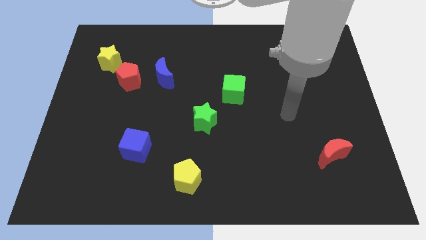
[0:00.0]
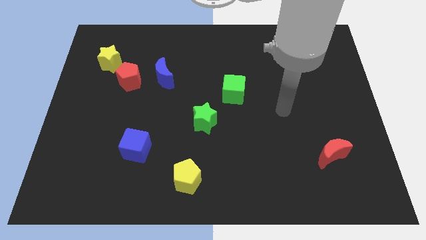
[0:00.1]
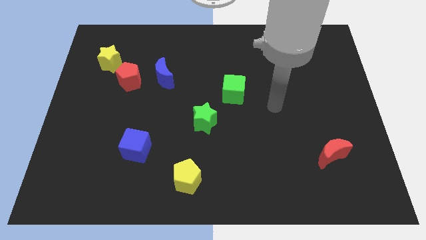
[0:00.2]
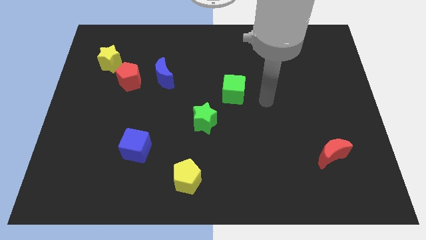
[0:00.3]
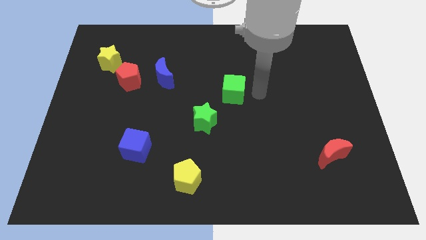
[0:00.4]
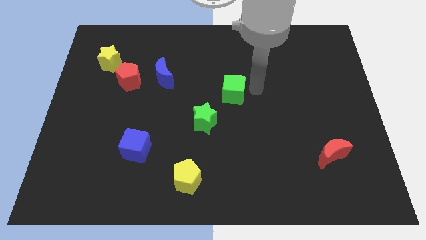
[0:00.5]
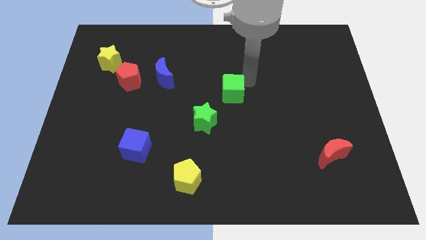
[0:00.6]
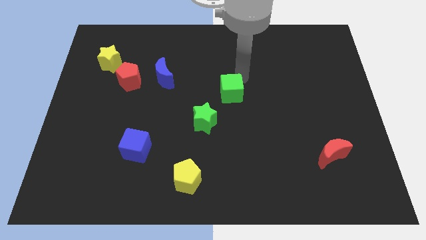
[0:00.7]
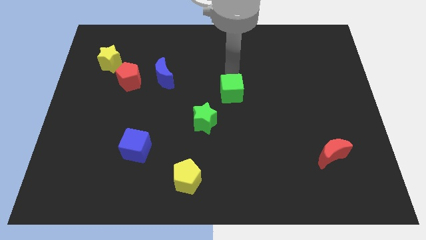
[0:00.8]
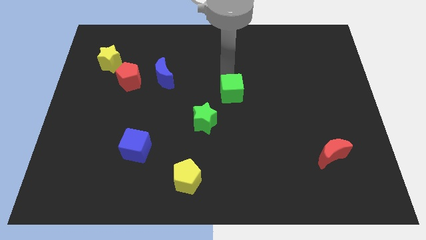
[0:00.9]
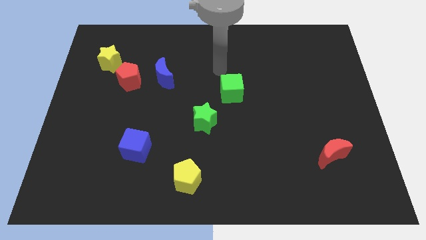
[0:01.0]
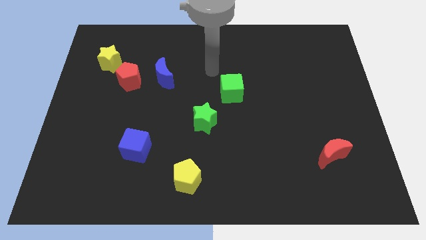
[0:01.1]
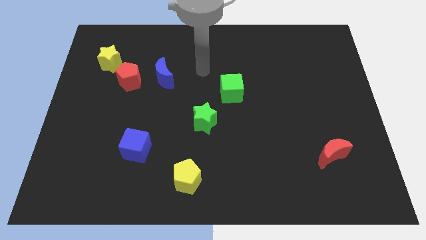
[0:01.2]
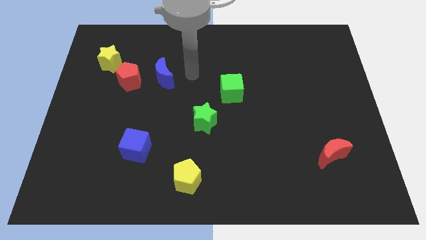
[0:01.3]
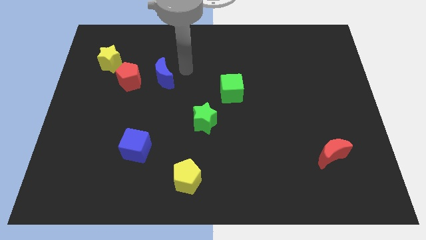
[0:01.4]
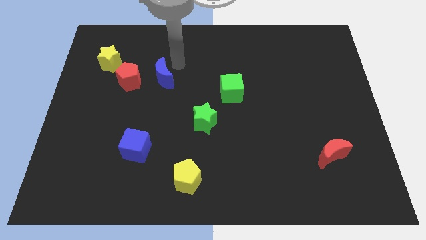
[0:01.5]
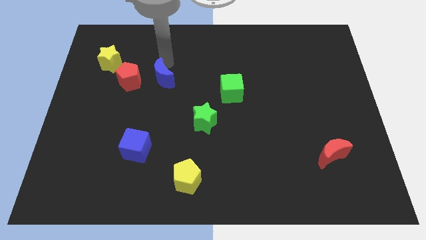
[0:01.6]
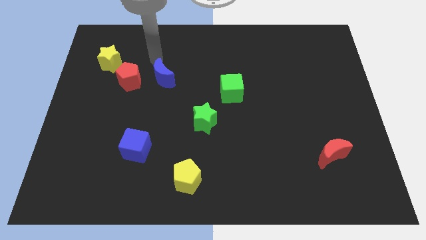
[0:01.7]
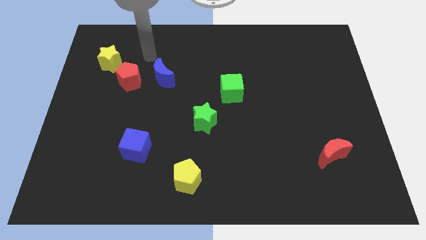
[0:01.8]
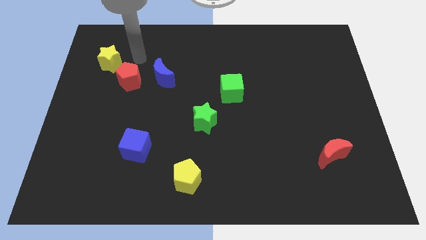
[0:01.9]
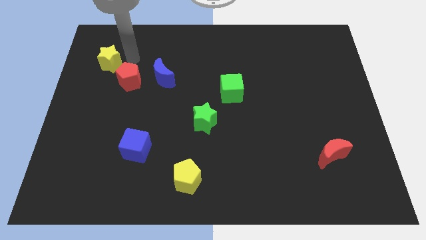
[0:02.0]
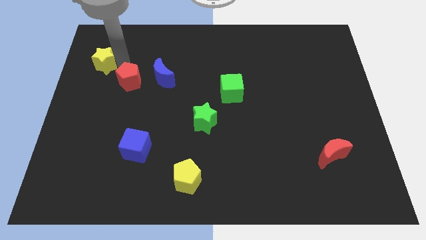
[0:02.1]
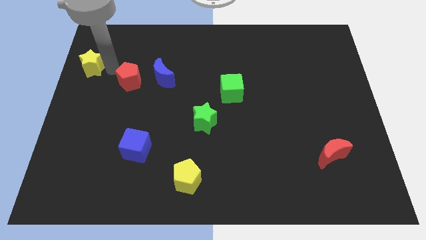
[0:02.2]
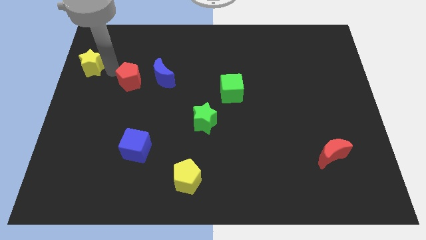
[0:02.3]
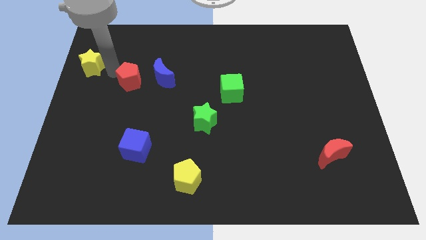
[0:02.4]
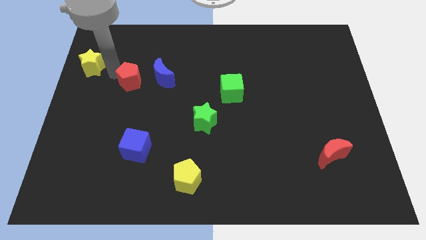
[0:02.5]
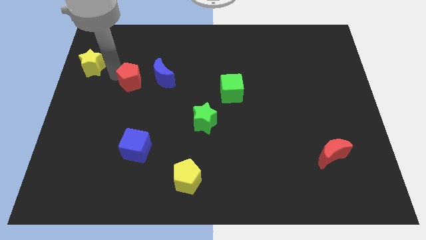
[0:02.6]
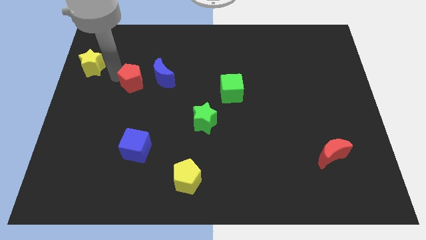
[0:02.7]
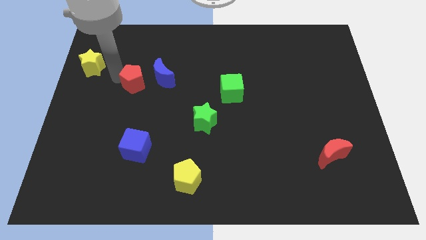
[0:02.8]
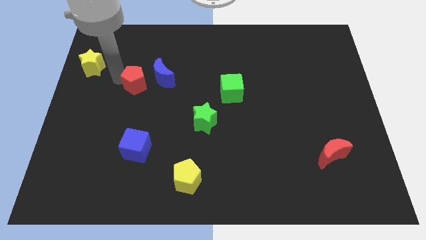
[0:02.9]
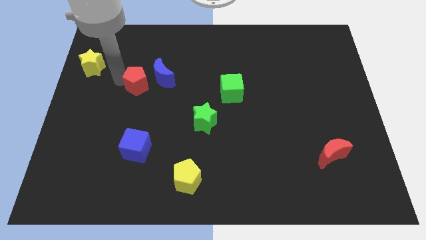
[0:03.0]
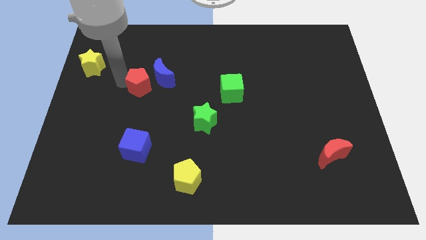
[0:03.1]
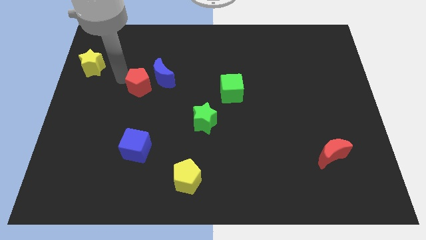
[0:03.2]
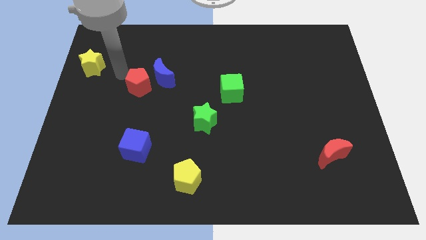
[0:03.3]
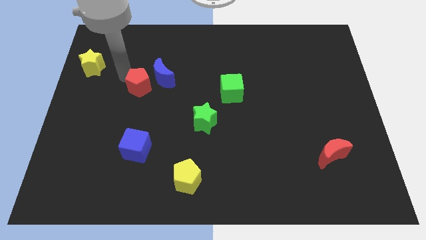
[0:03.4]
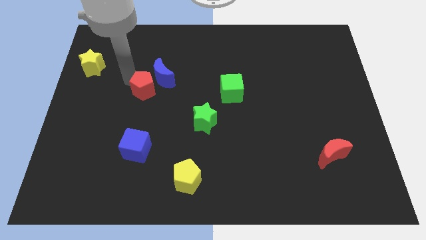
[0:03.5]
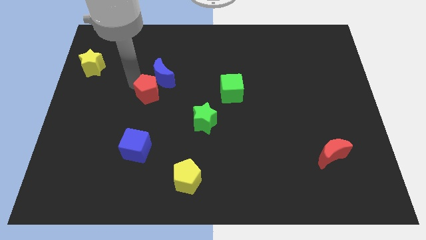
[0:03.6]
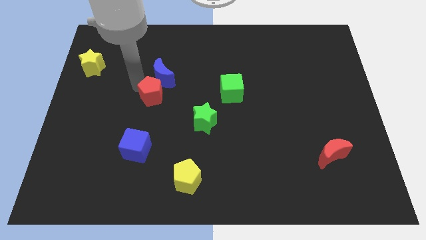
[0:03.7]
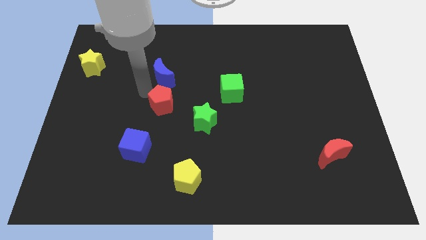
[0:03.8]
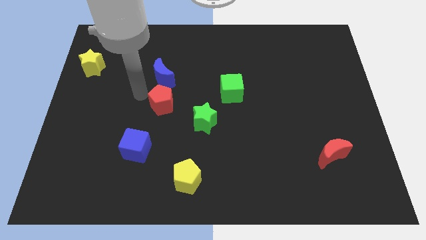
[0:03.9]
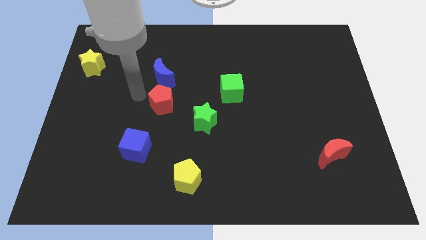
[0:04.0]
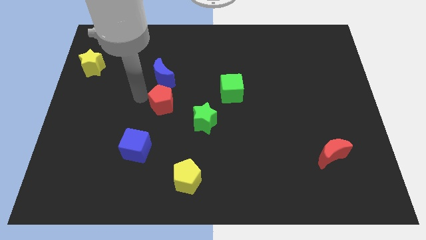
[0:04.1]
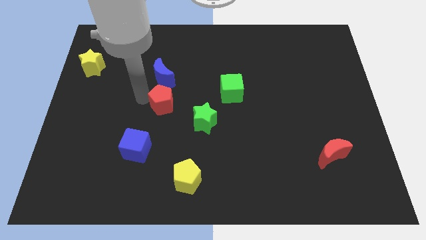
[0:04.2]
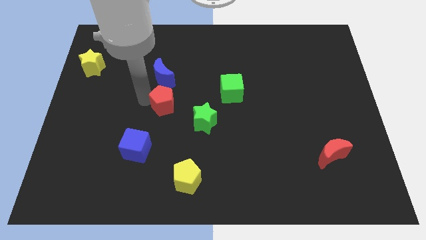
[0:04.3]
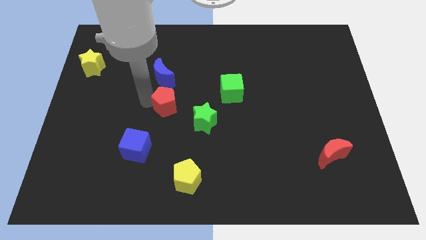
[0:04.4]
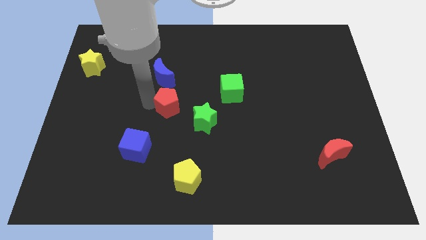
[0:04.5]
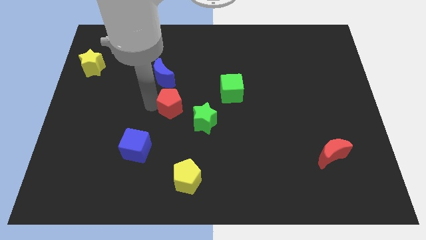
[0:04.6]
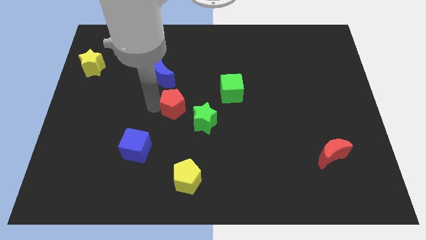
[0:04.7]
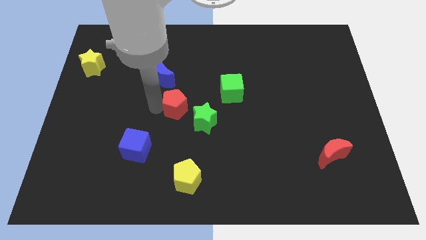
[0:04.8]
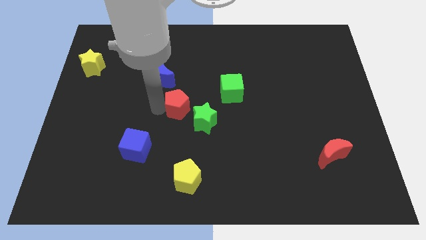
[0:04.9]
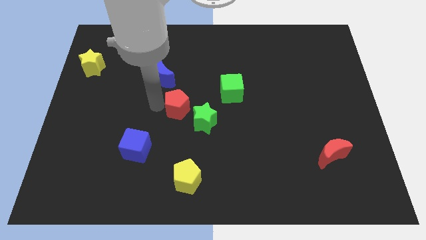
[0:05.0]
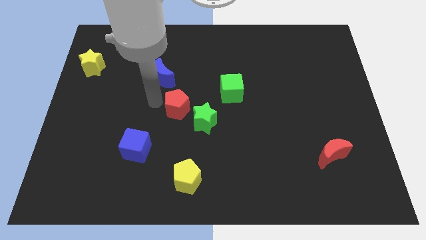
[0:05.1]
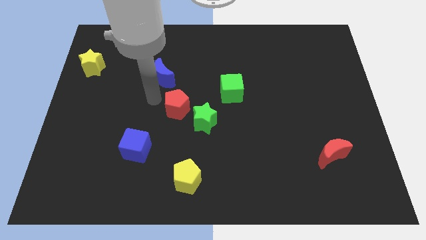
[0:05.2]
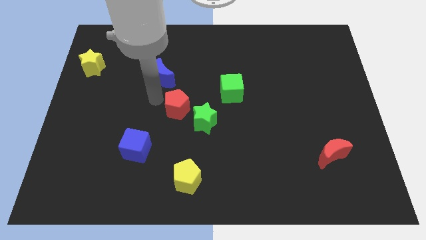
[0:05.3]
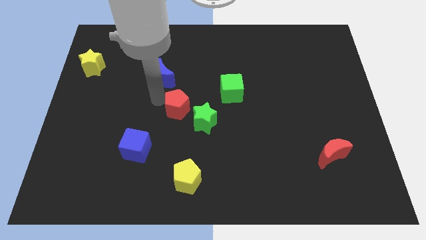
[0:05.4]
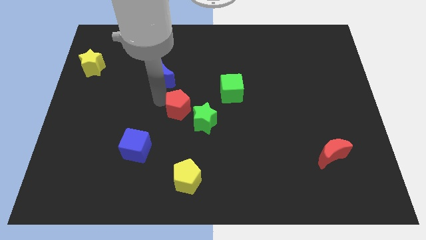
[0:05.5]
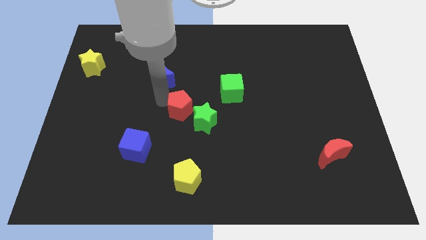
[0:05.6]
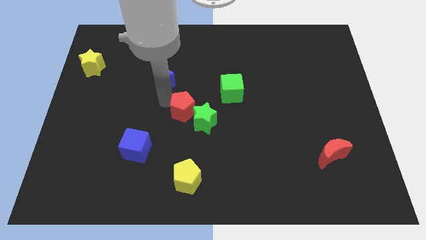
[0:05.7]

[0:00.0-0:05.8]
move the red pentagon close to the green star

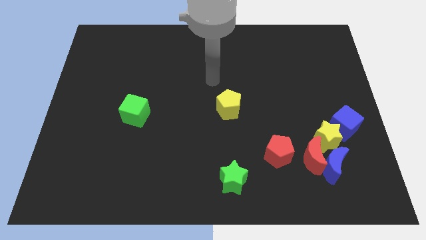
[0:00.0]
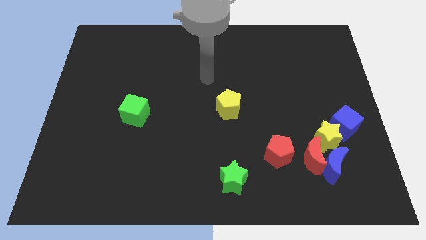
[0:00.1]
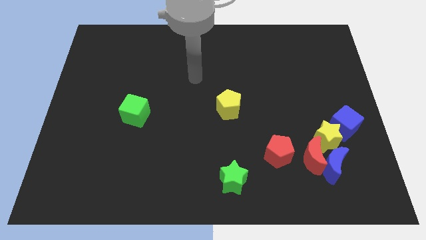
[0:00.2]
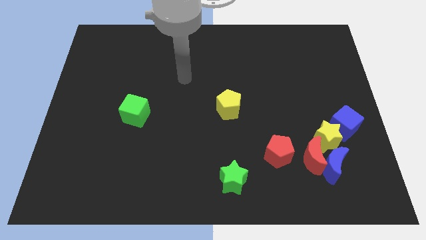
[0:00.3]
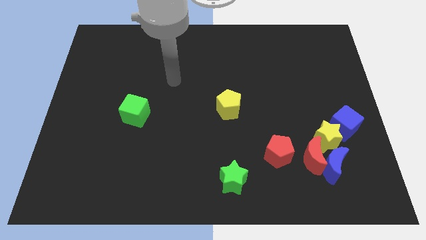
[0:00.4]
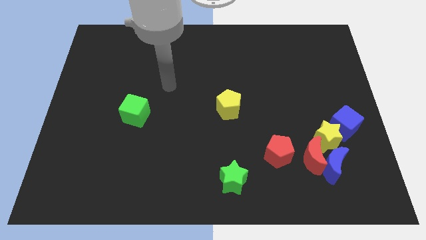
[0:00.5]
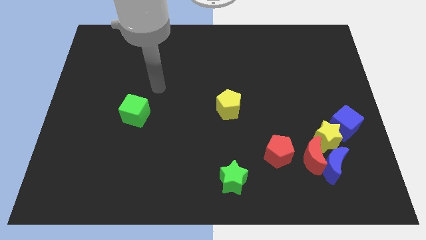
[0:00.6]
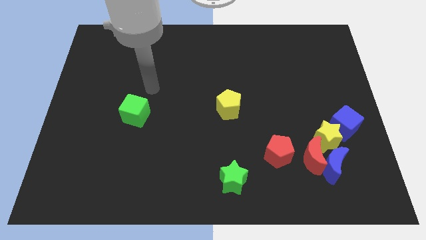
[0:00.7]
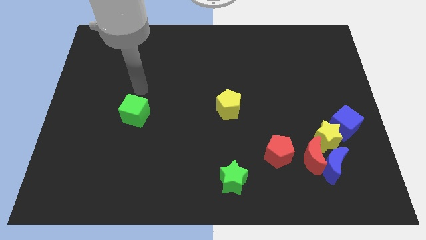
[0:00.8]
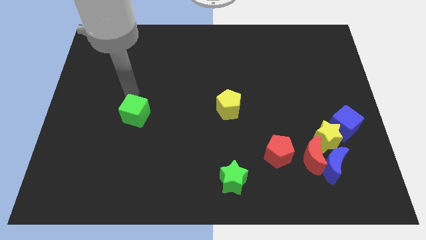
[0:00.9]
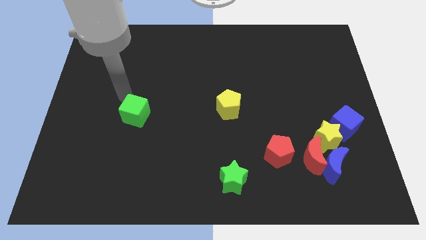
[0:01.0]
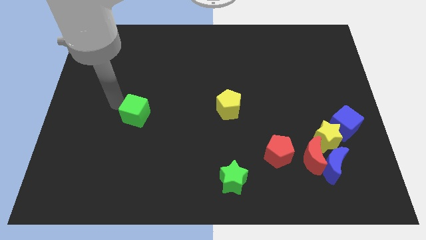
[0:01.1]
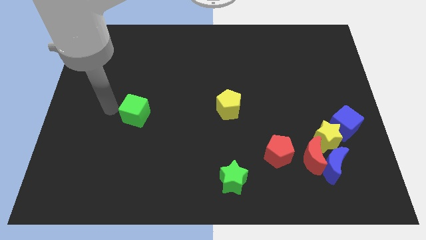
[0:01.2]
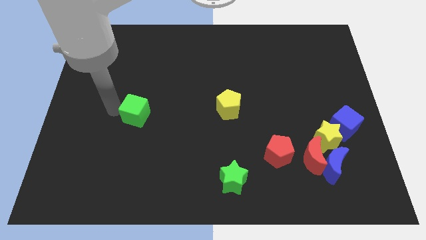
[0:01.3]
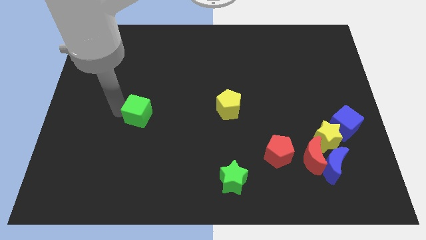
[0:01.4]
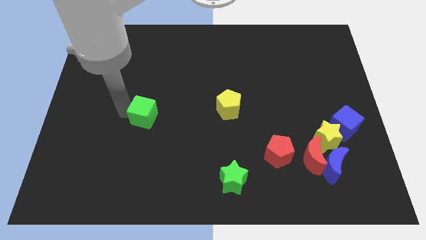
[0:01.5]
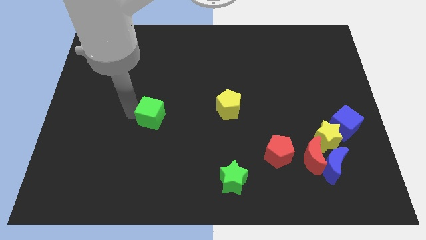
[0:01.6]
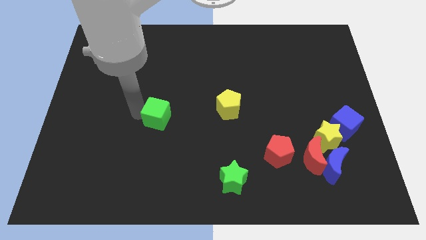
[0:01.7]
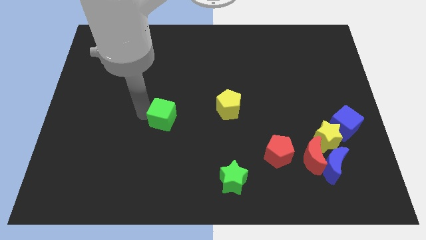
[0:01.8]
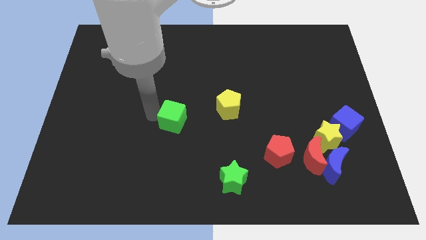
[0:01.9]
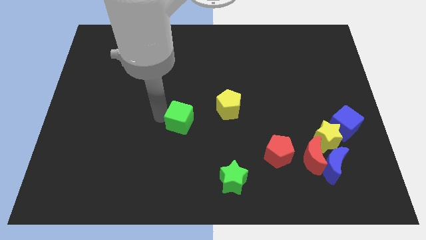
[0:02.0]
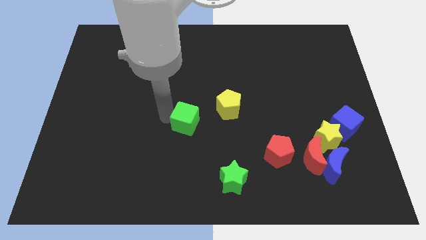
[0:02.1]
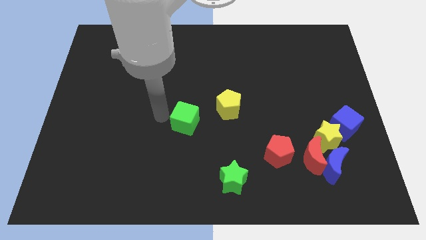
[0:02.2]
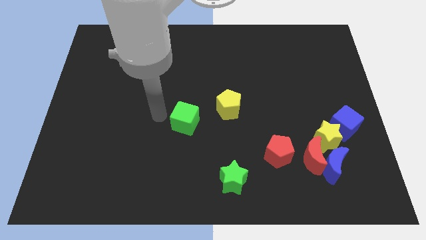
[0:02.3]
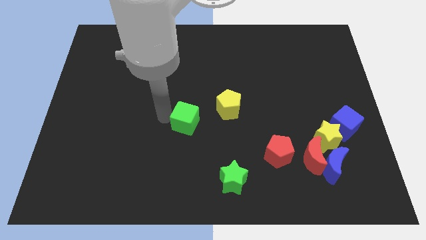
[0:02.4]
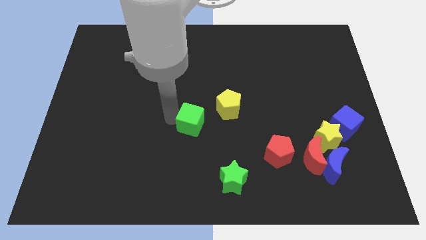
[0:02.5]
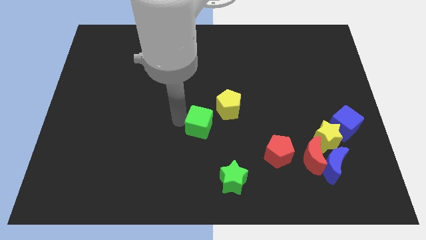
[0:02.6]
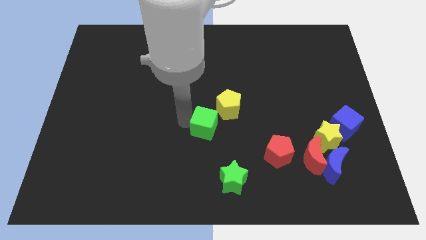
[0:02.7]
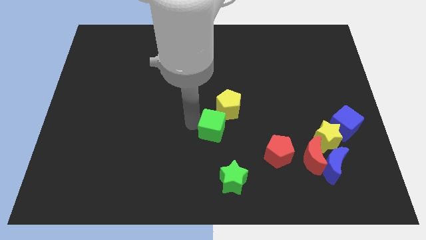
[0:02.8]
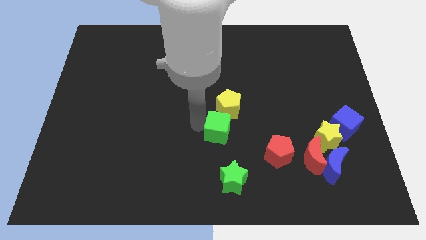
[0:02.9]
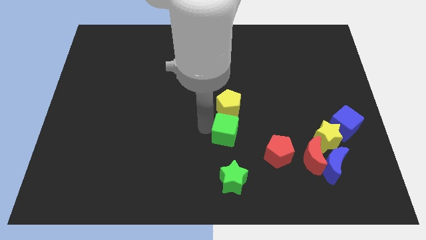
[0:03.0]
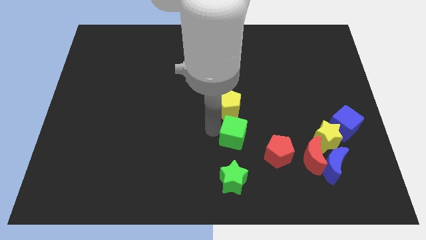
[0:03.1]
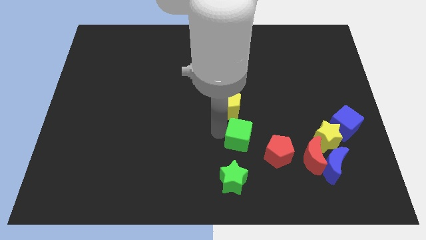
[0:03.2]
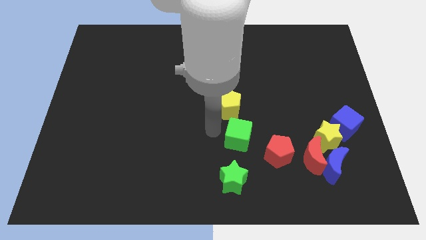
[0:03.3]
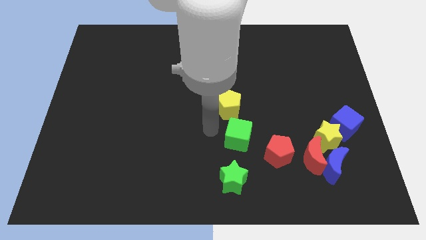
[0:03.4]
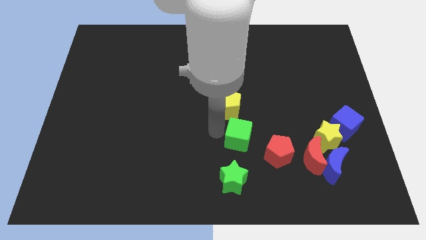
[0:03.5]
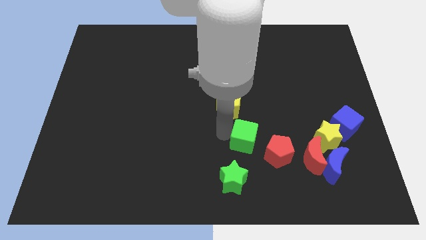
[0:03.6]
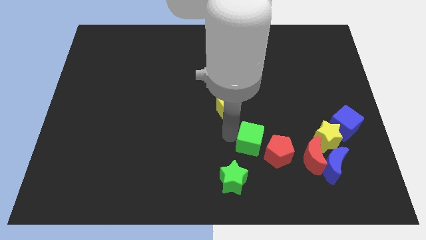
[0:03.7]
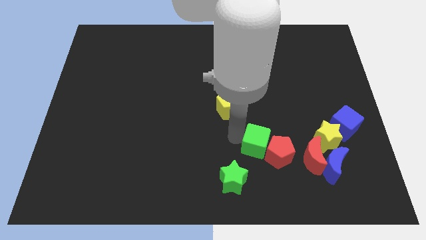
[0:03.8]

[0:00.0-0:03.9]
push the green cube towards the red pentagon
